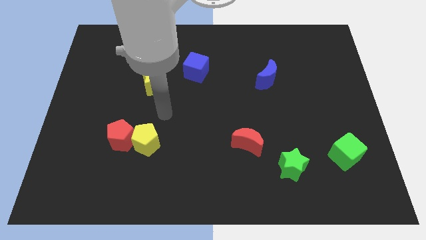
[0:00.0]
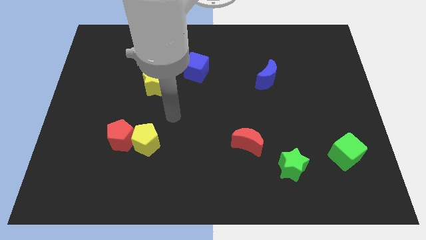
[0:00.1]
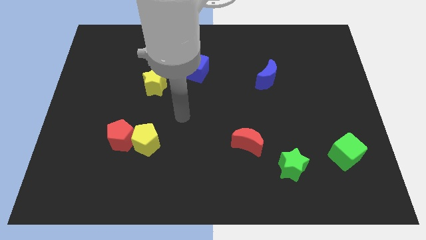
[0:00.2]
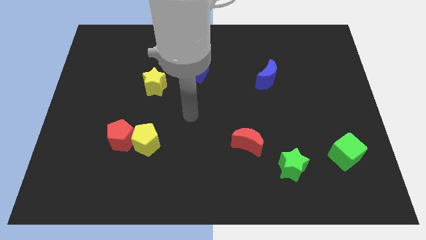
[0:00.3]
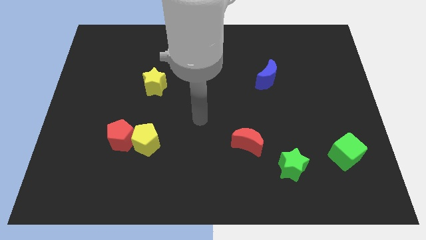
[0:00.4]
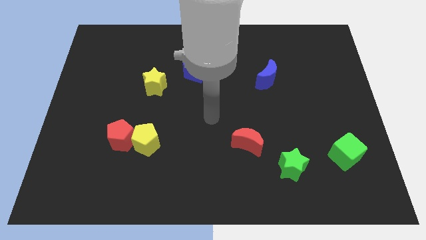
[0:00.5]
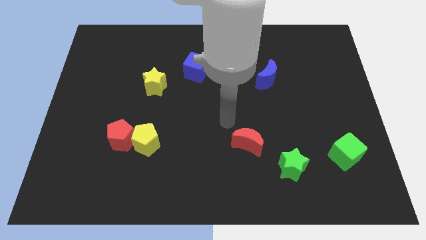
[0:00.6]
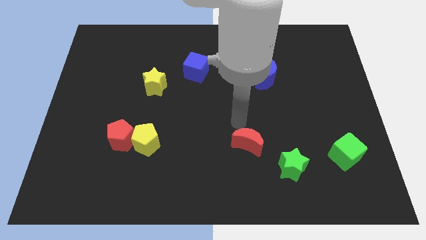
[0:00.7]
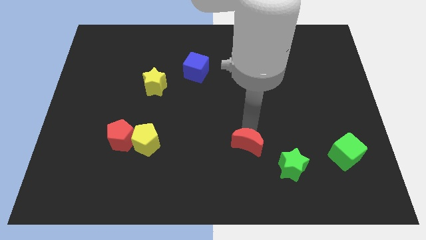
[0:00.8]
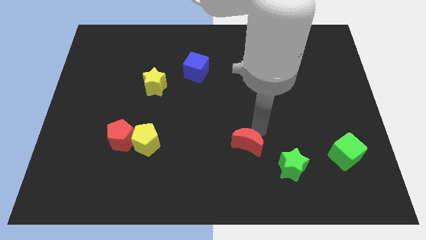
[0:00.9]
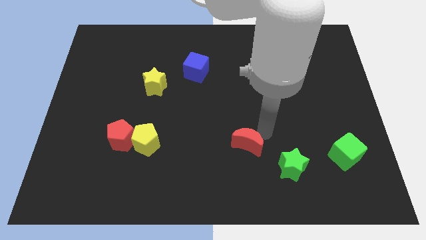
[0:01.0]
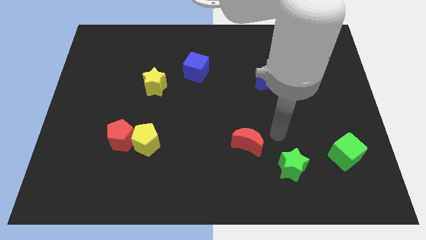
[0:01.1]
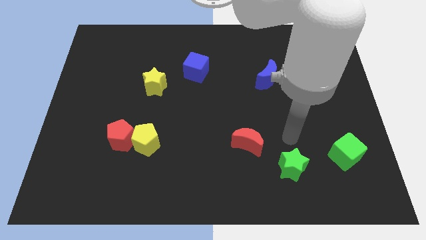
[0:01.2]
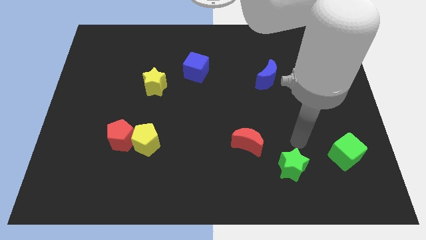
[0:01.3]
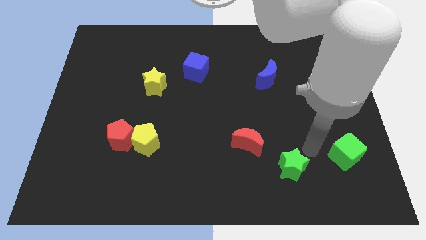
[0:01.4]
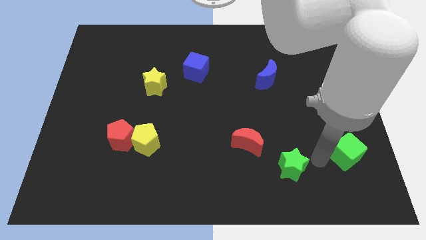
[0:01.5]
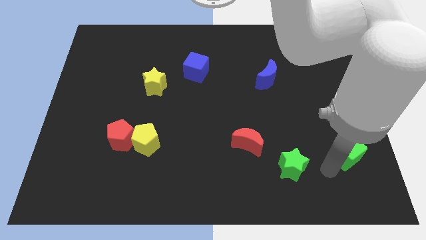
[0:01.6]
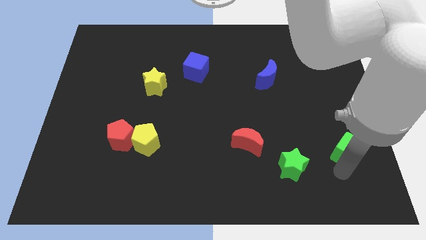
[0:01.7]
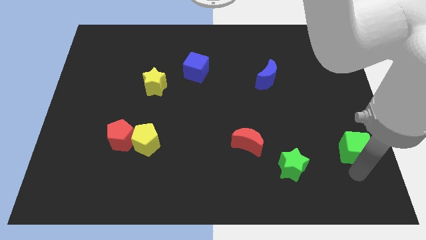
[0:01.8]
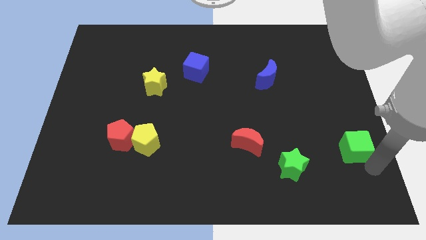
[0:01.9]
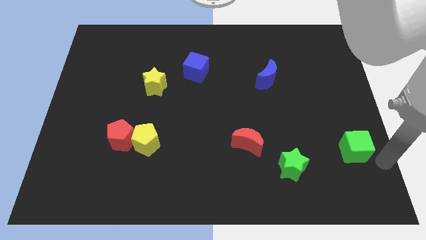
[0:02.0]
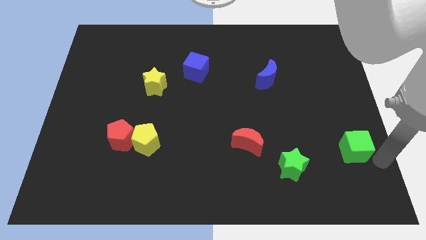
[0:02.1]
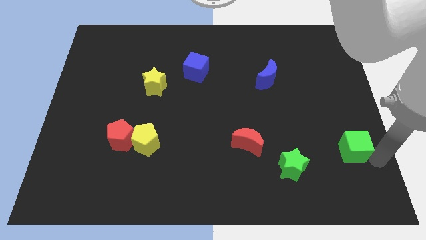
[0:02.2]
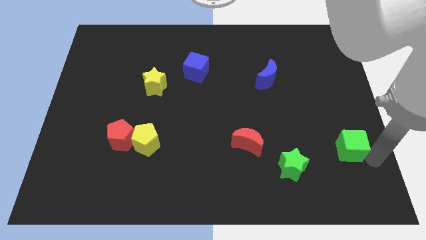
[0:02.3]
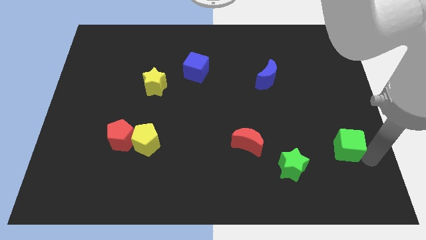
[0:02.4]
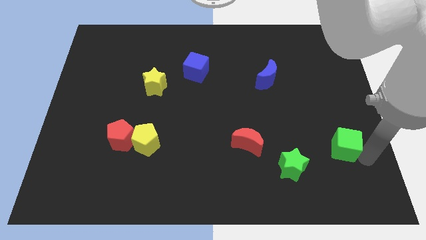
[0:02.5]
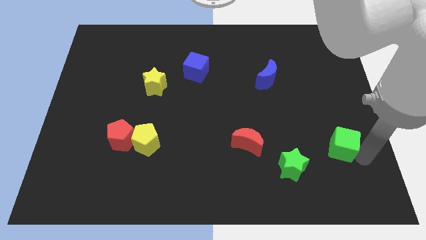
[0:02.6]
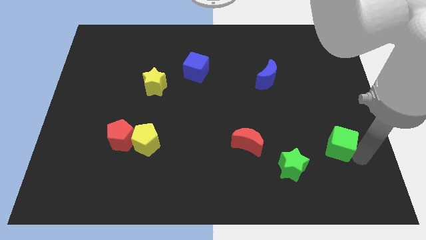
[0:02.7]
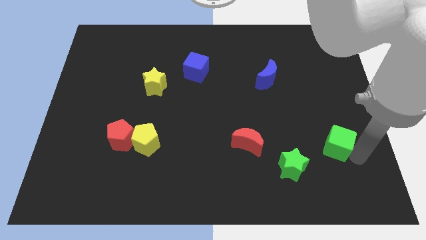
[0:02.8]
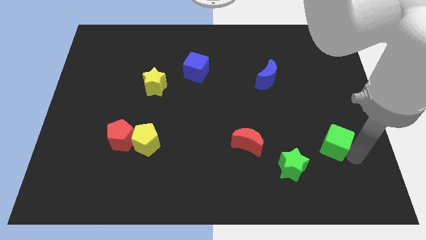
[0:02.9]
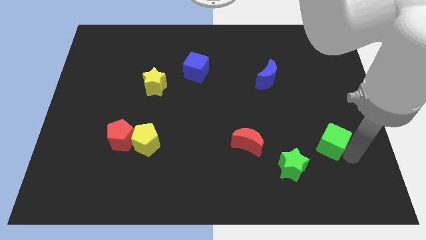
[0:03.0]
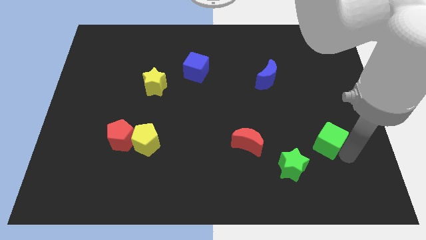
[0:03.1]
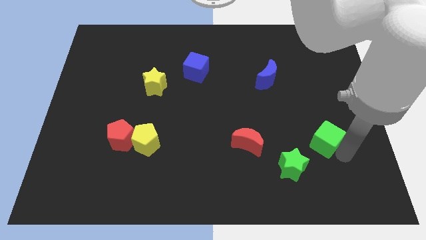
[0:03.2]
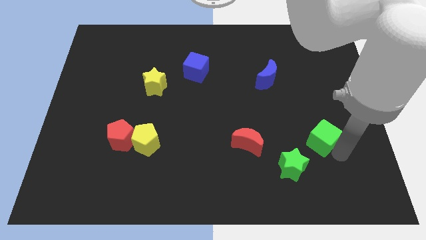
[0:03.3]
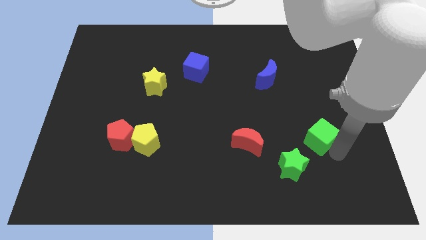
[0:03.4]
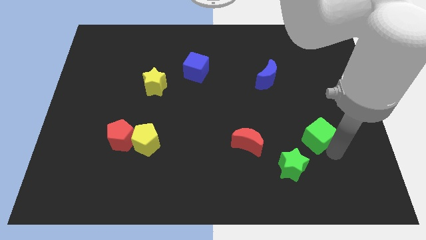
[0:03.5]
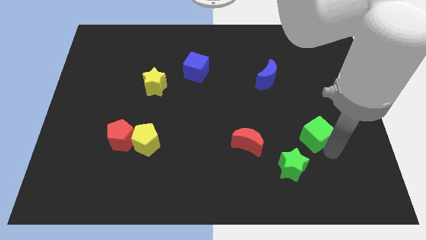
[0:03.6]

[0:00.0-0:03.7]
slide the green cube up and left diagonally a bit

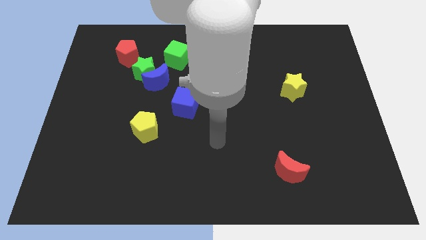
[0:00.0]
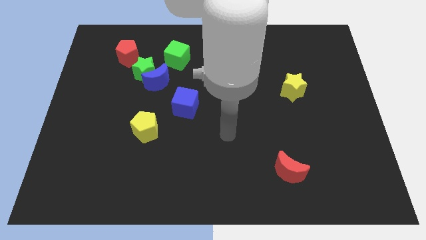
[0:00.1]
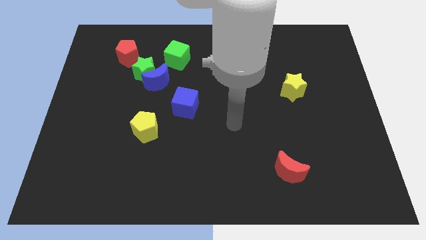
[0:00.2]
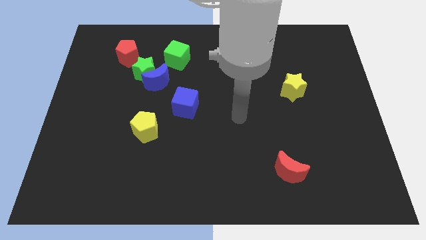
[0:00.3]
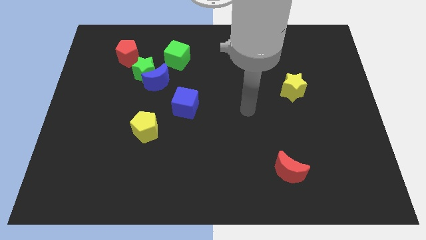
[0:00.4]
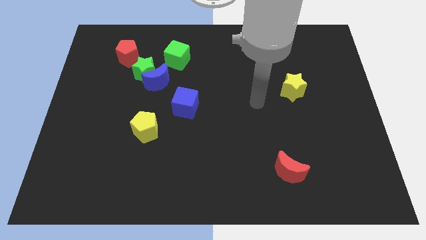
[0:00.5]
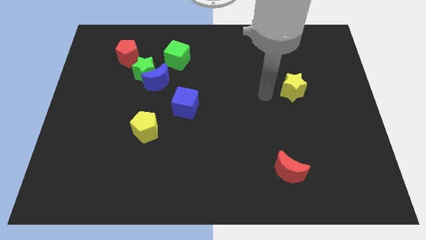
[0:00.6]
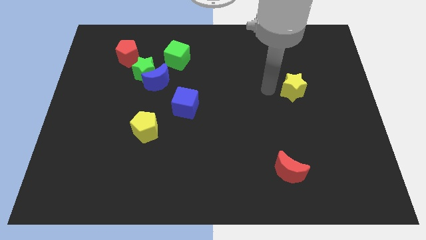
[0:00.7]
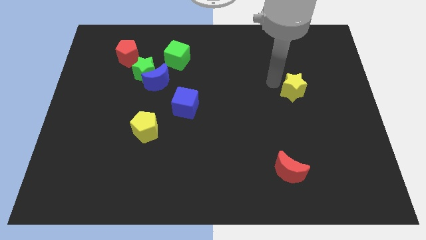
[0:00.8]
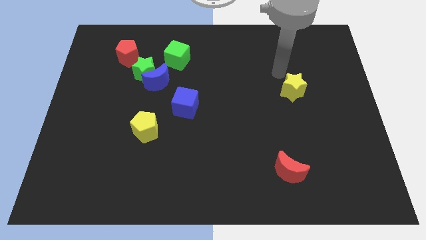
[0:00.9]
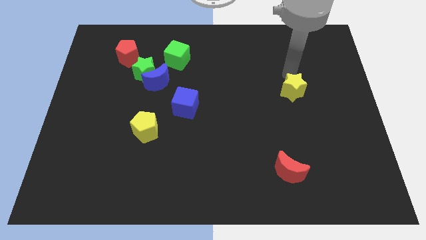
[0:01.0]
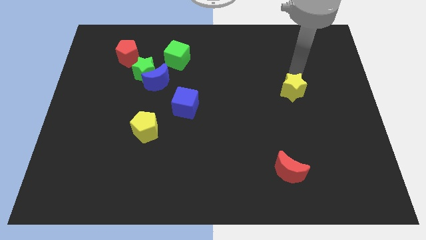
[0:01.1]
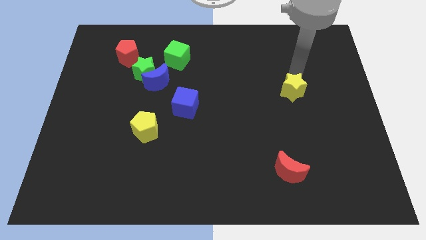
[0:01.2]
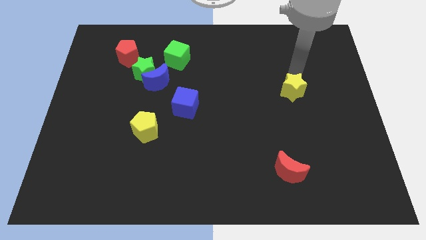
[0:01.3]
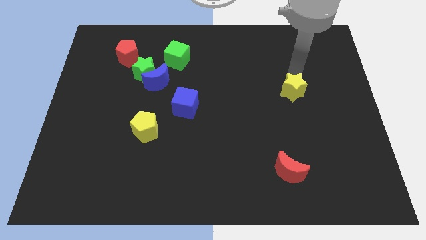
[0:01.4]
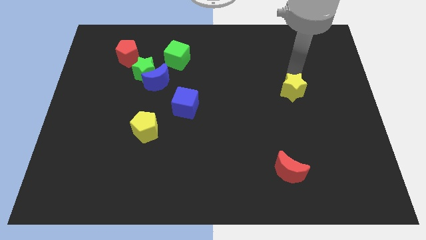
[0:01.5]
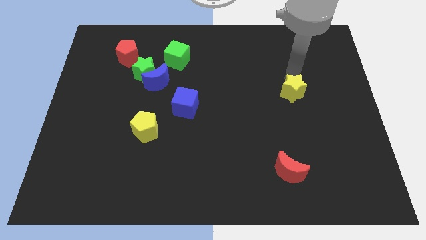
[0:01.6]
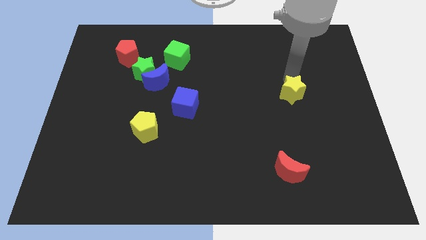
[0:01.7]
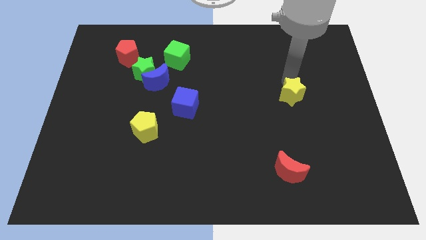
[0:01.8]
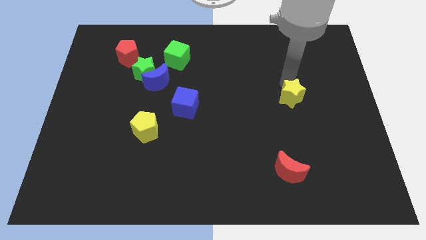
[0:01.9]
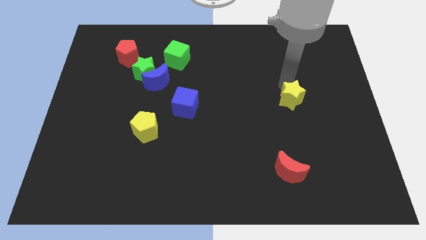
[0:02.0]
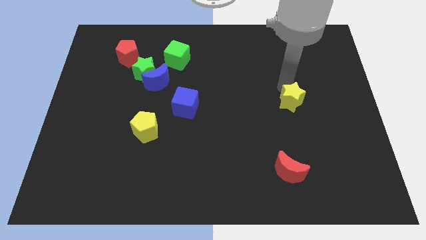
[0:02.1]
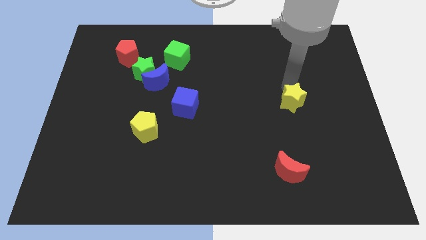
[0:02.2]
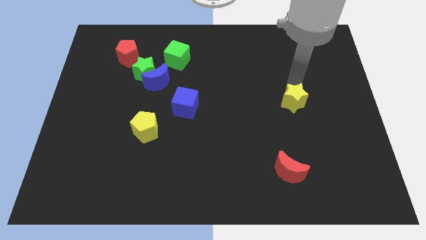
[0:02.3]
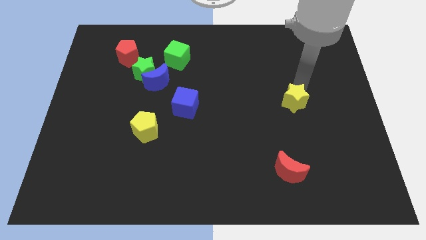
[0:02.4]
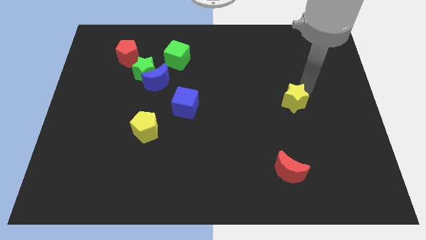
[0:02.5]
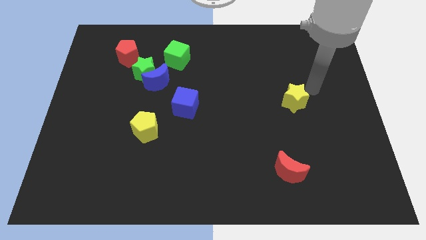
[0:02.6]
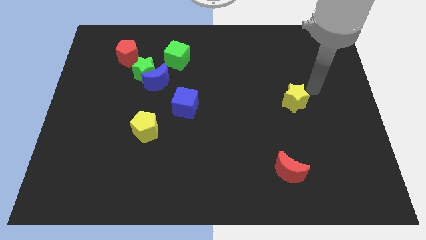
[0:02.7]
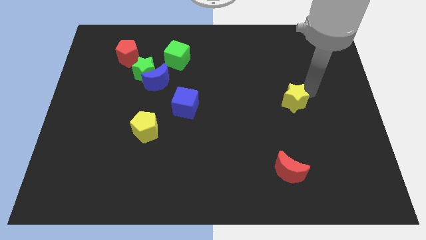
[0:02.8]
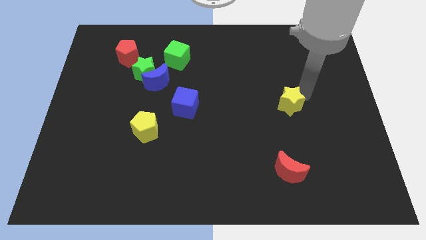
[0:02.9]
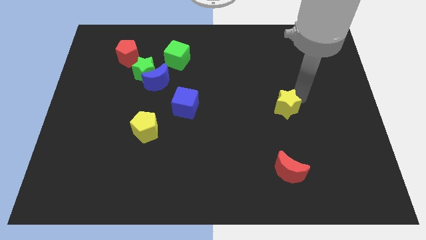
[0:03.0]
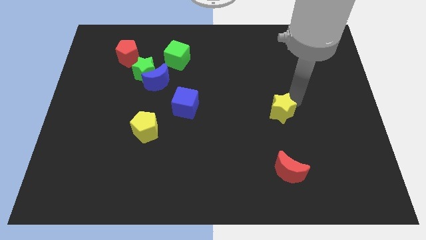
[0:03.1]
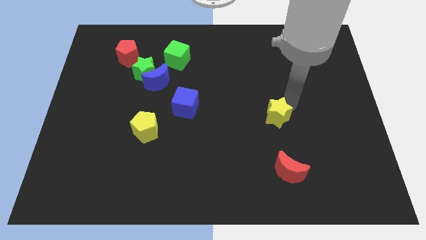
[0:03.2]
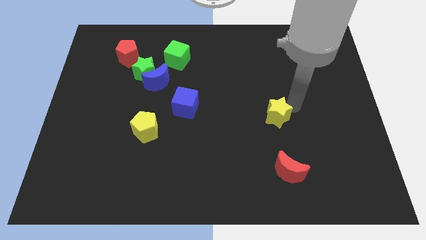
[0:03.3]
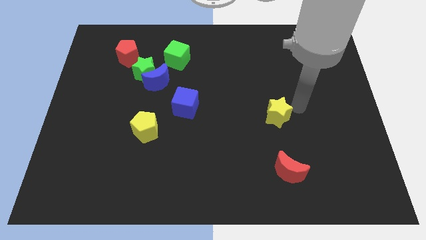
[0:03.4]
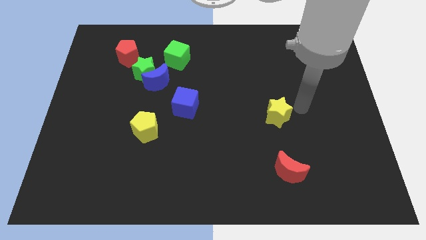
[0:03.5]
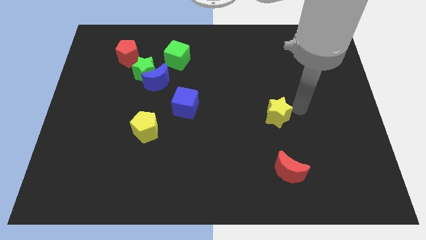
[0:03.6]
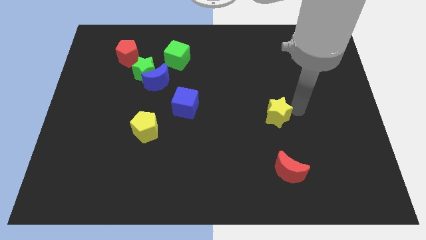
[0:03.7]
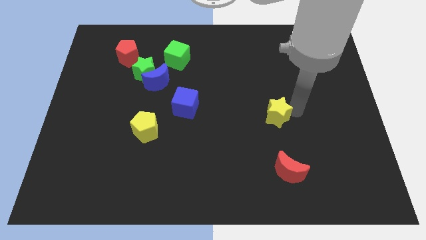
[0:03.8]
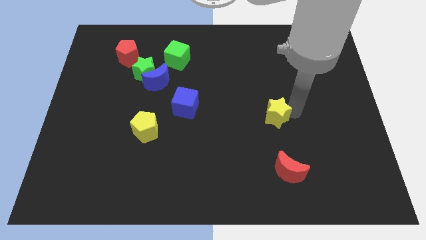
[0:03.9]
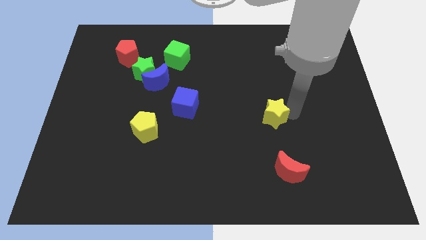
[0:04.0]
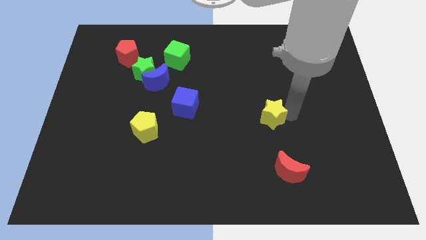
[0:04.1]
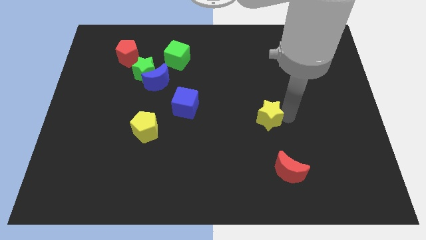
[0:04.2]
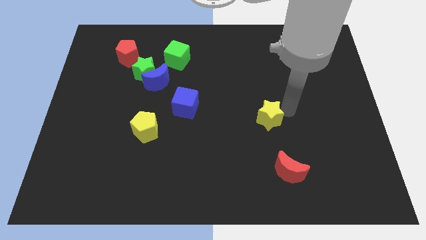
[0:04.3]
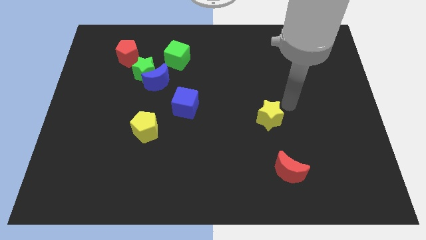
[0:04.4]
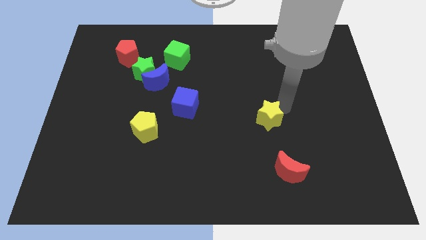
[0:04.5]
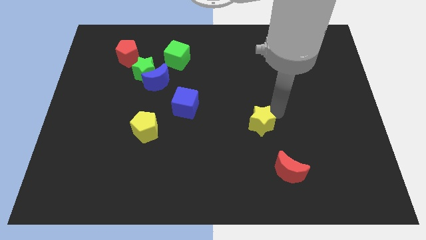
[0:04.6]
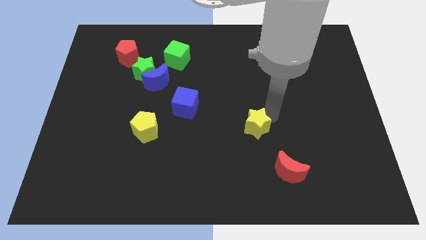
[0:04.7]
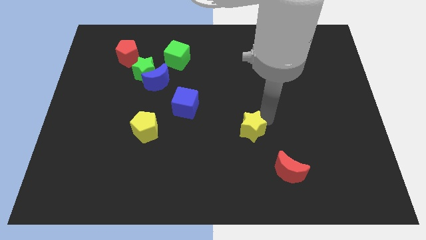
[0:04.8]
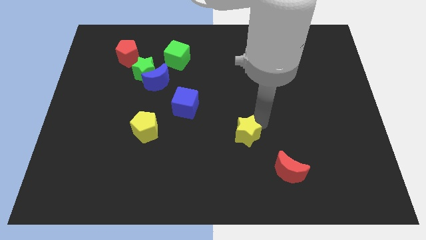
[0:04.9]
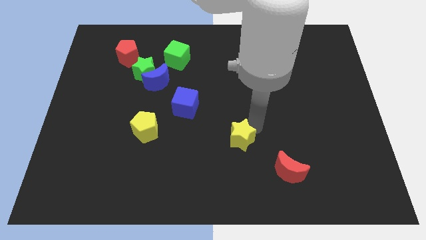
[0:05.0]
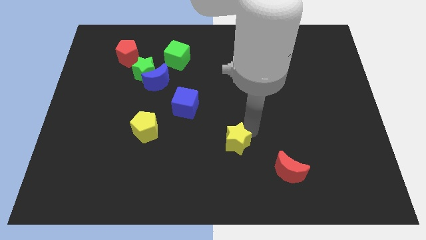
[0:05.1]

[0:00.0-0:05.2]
slide the yellow star down and to the left
